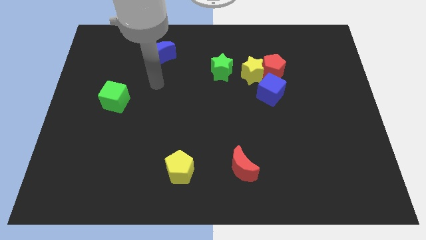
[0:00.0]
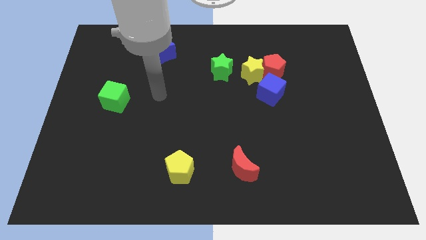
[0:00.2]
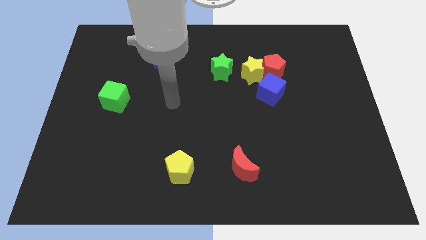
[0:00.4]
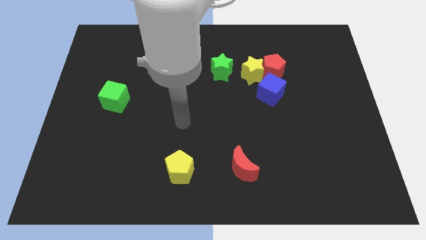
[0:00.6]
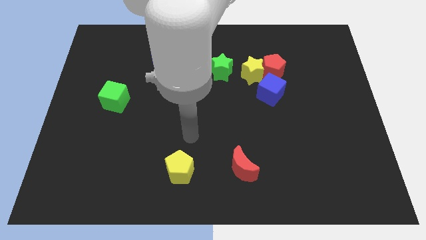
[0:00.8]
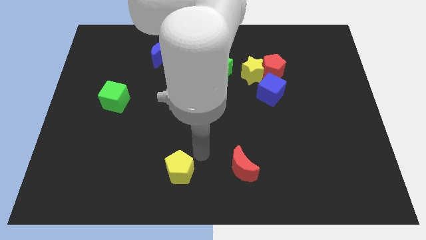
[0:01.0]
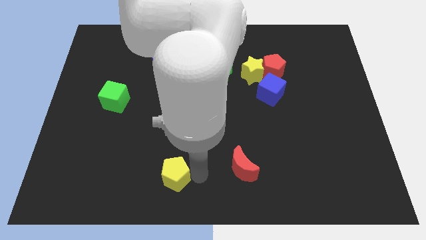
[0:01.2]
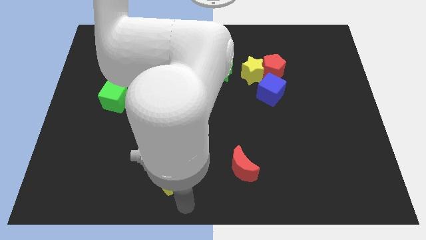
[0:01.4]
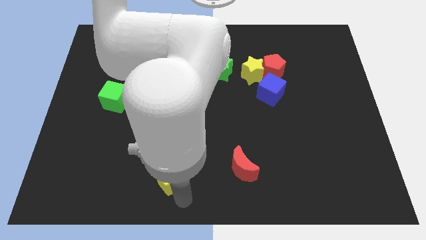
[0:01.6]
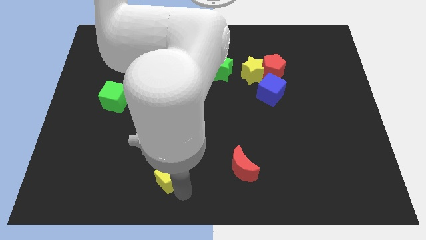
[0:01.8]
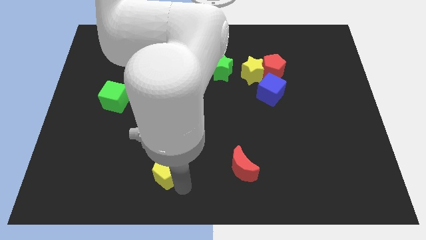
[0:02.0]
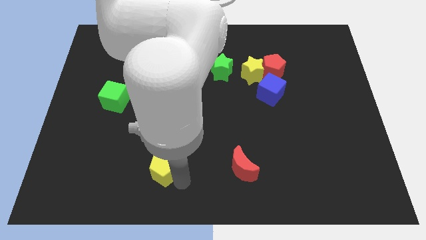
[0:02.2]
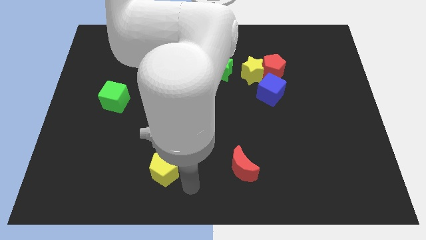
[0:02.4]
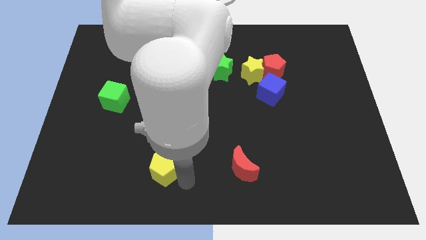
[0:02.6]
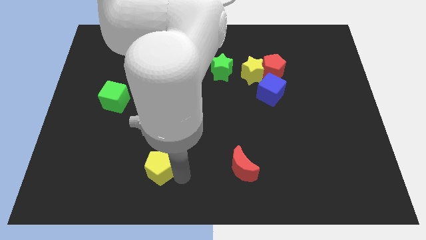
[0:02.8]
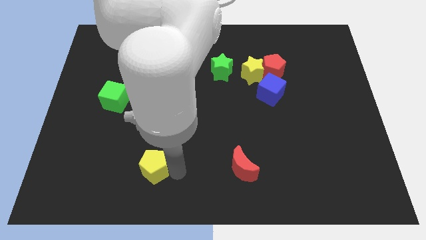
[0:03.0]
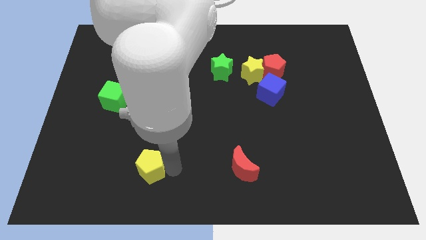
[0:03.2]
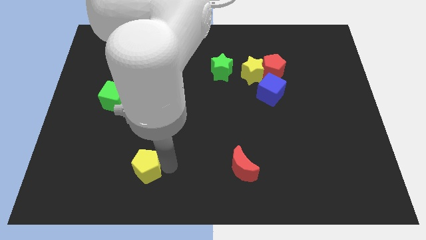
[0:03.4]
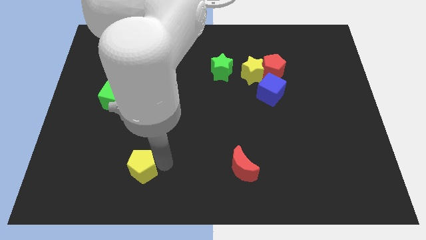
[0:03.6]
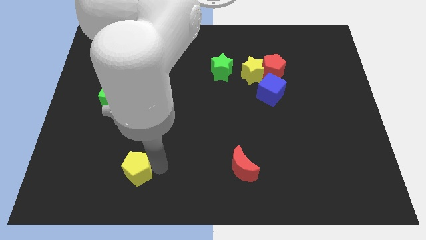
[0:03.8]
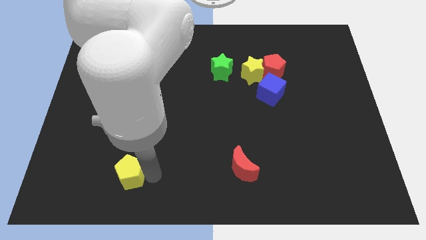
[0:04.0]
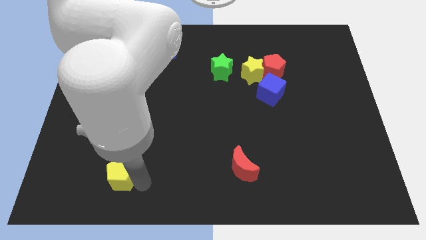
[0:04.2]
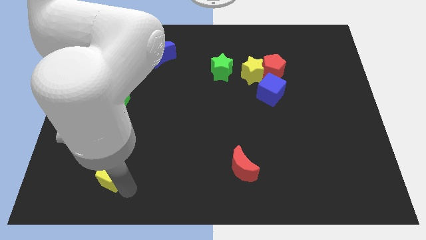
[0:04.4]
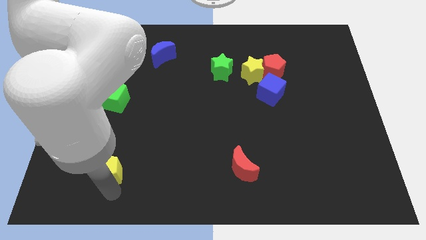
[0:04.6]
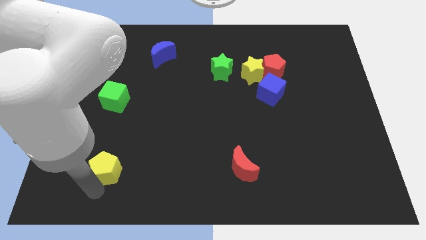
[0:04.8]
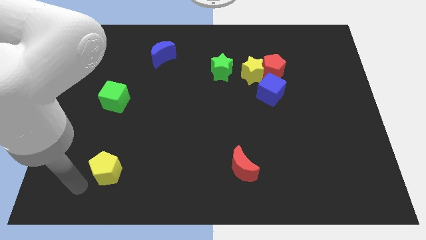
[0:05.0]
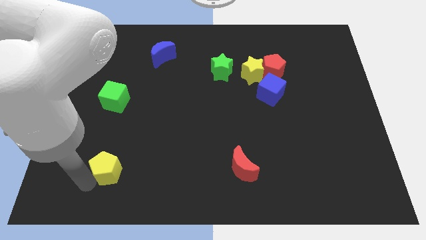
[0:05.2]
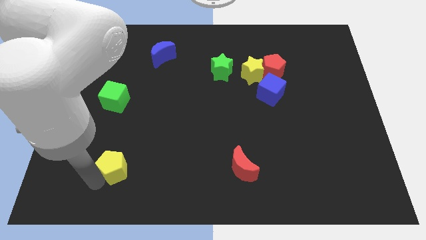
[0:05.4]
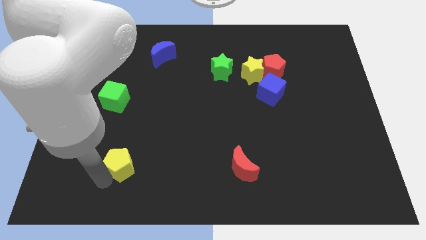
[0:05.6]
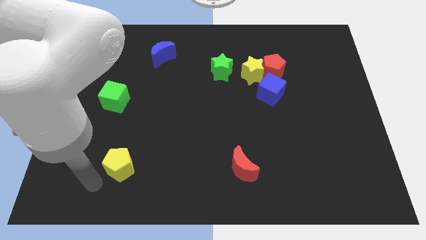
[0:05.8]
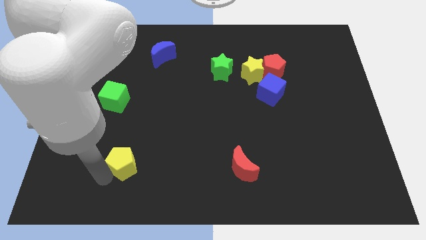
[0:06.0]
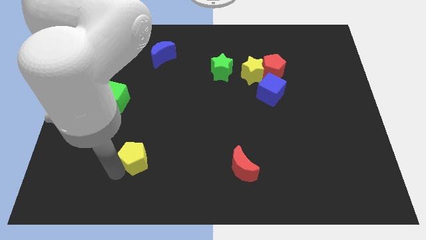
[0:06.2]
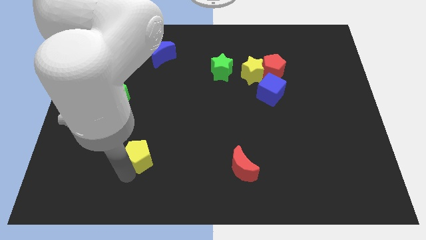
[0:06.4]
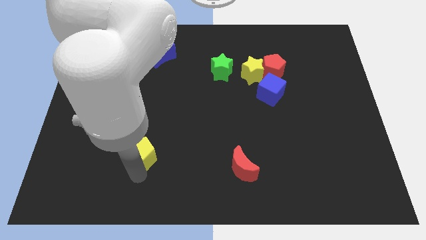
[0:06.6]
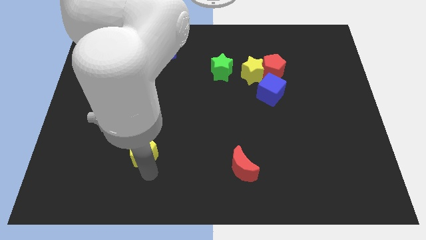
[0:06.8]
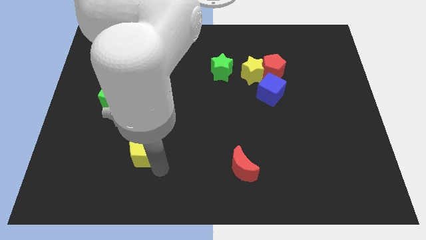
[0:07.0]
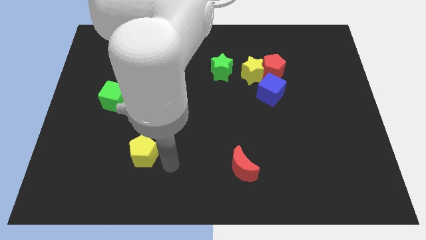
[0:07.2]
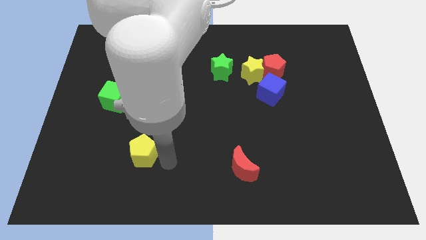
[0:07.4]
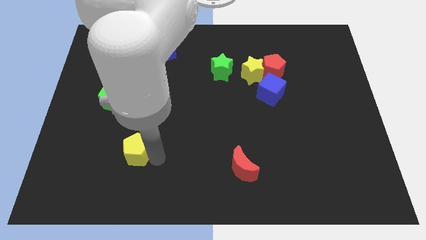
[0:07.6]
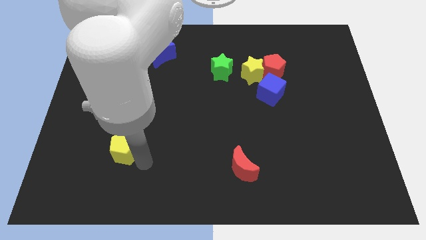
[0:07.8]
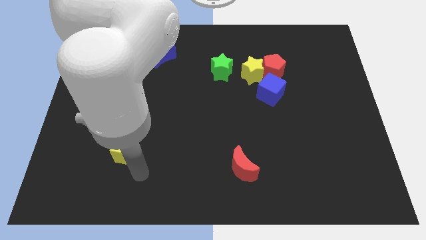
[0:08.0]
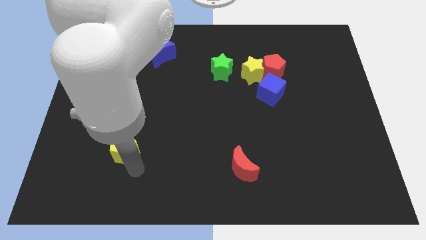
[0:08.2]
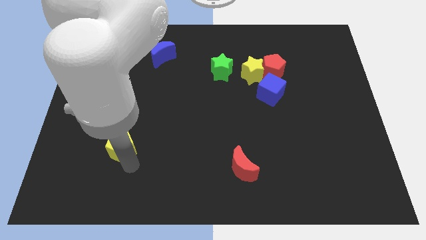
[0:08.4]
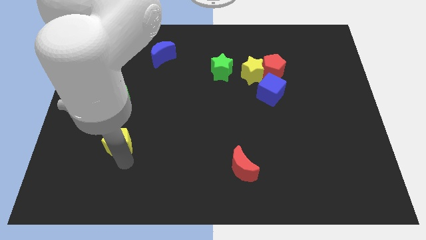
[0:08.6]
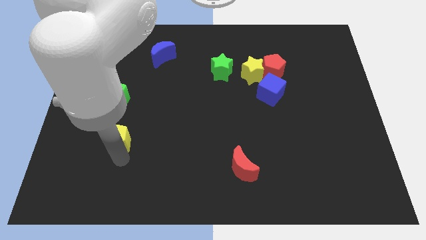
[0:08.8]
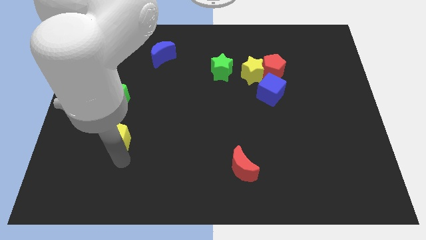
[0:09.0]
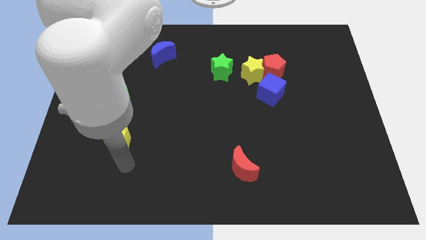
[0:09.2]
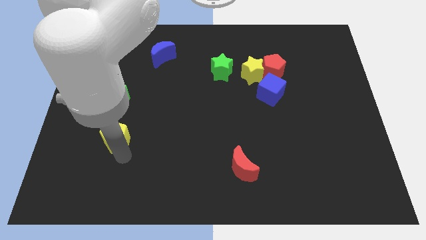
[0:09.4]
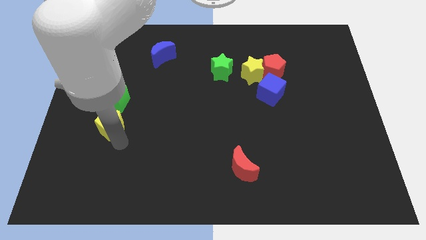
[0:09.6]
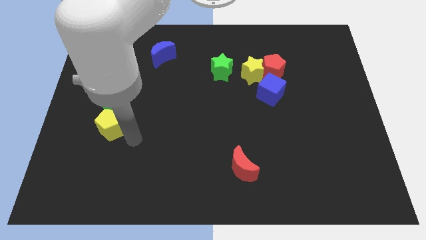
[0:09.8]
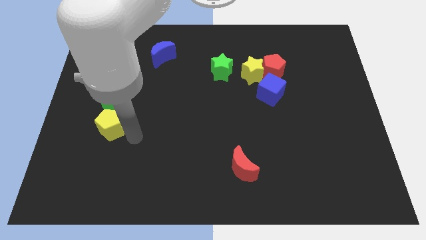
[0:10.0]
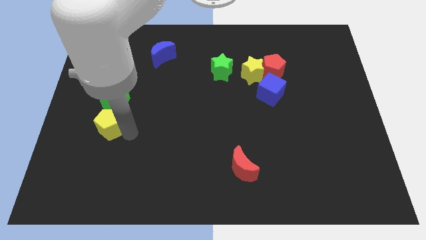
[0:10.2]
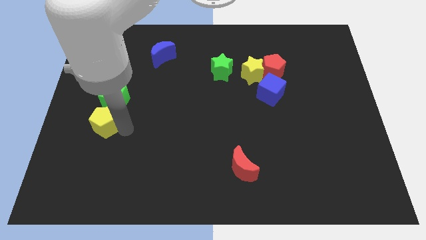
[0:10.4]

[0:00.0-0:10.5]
push the yellow pentagon diagonally down and to the left of the green cube

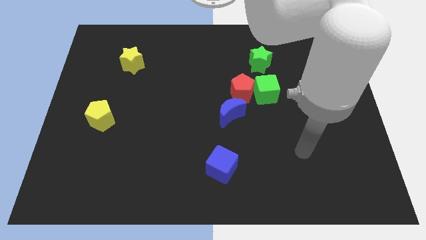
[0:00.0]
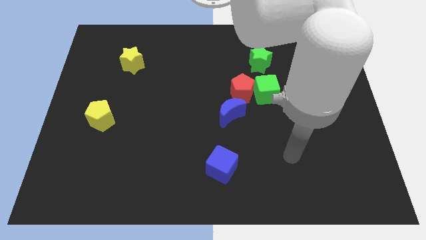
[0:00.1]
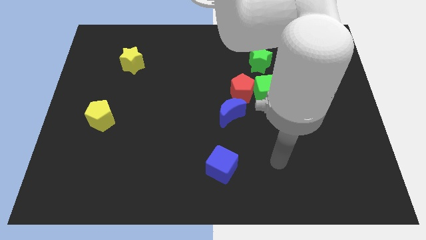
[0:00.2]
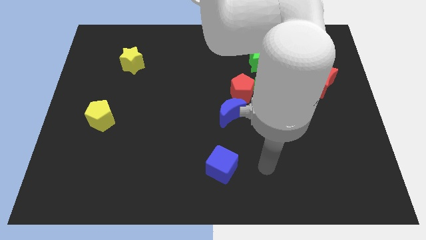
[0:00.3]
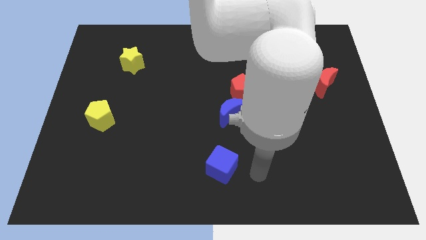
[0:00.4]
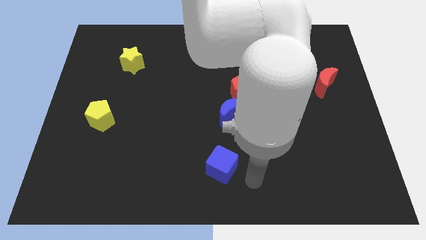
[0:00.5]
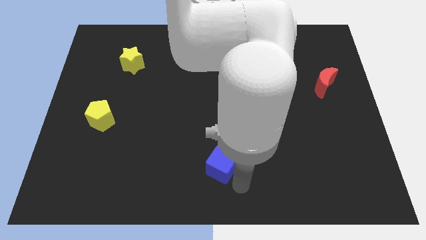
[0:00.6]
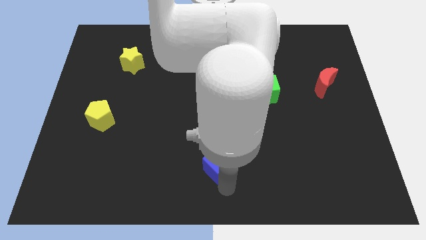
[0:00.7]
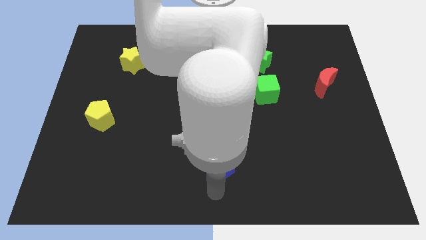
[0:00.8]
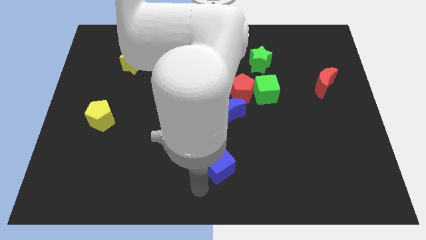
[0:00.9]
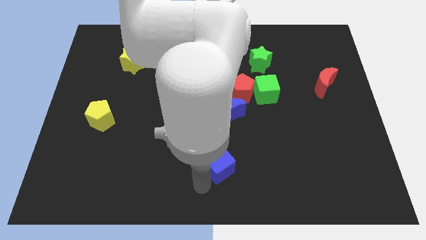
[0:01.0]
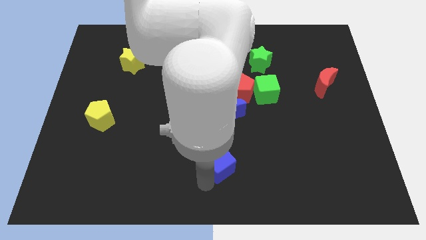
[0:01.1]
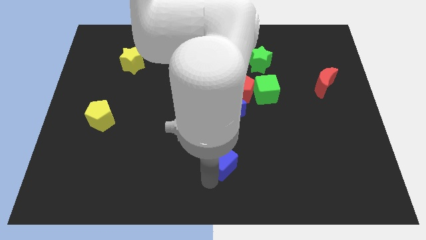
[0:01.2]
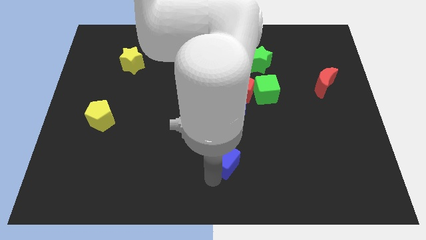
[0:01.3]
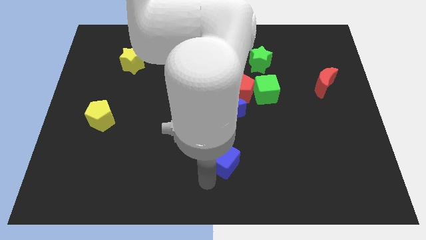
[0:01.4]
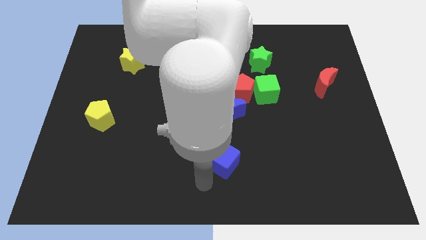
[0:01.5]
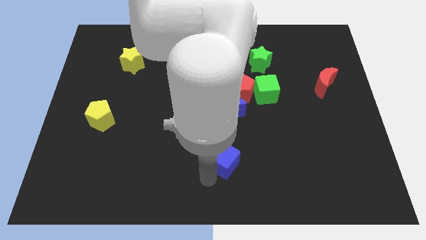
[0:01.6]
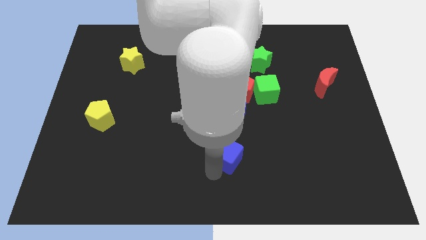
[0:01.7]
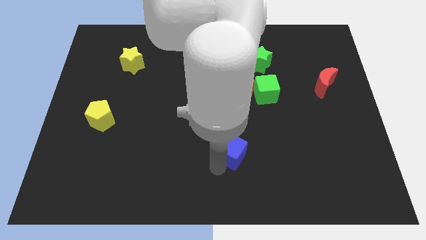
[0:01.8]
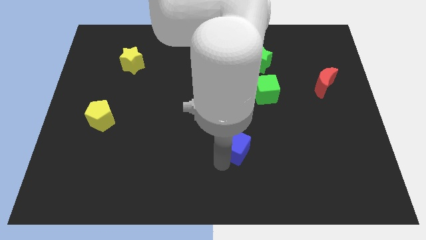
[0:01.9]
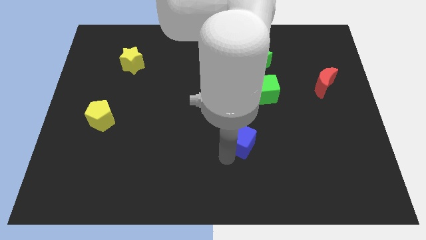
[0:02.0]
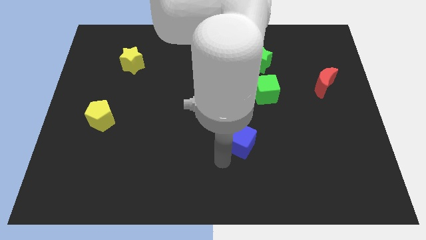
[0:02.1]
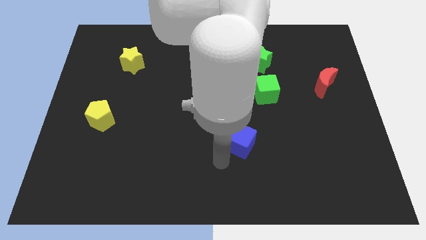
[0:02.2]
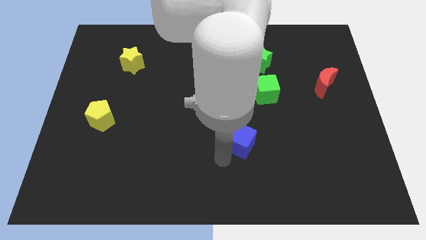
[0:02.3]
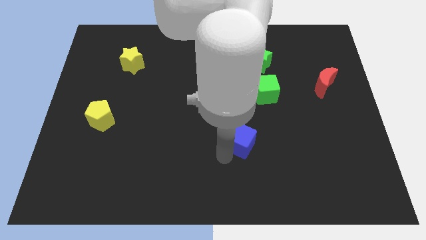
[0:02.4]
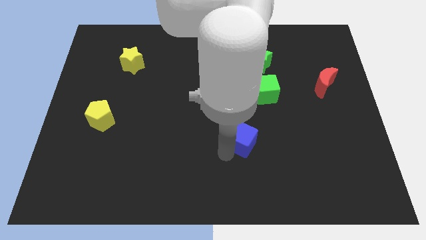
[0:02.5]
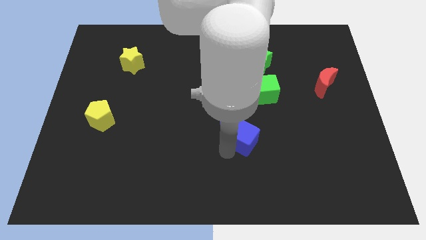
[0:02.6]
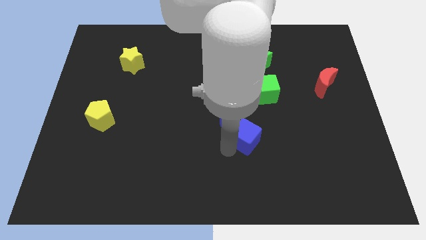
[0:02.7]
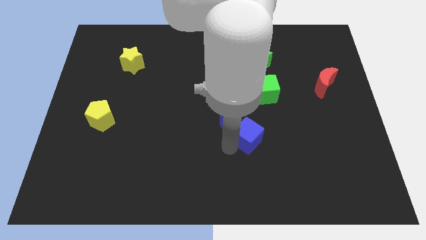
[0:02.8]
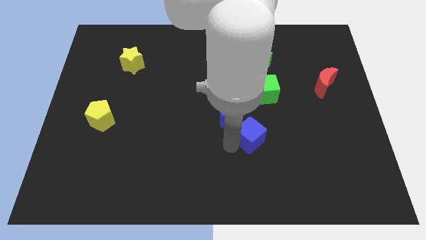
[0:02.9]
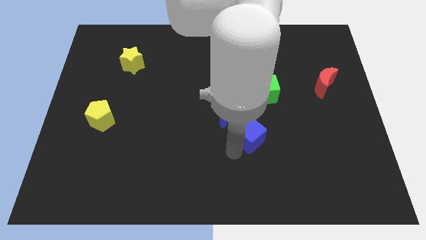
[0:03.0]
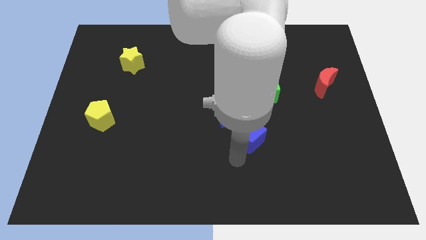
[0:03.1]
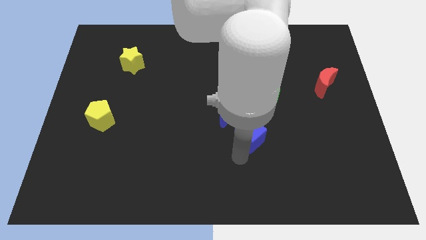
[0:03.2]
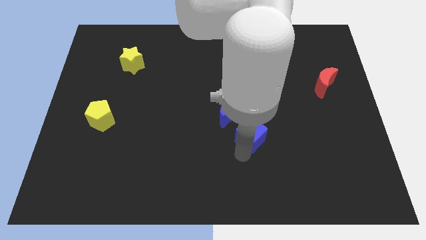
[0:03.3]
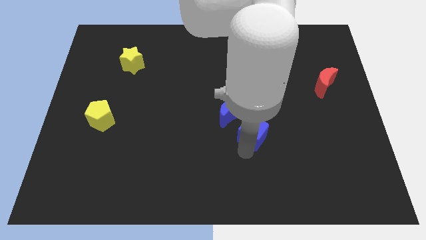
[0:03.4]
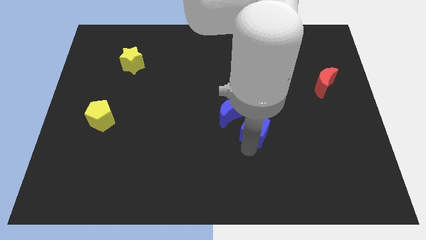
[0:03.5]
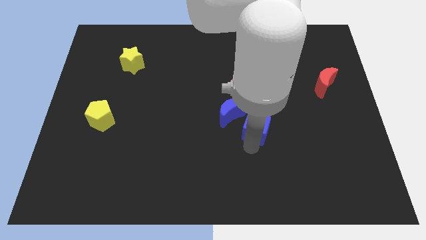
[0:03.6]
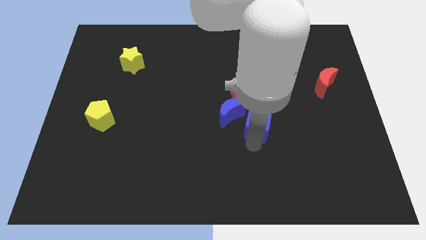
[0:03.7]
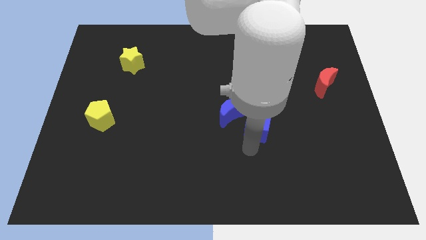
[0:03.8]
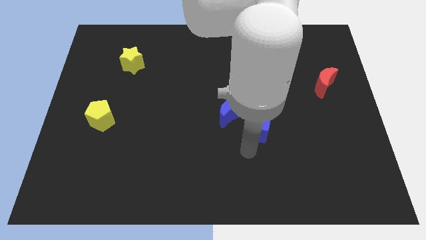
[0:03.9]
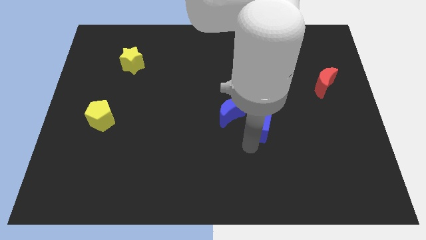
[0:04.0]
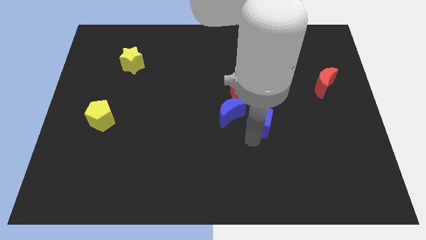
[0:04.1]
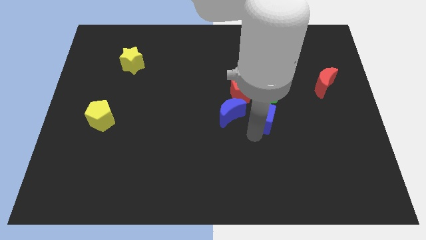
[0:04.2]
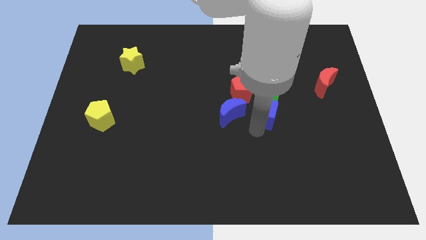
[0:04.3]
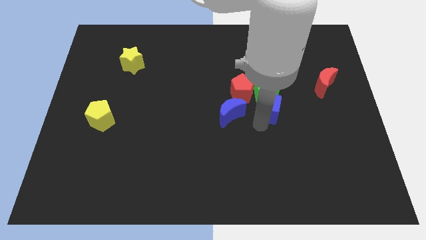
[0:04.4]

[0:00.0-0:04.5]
put the blue cube to the bottom of the green star
